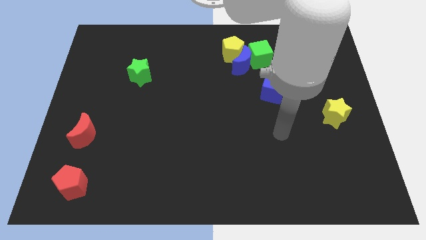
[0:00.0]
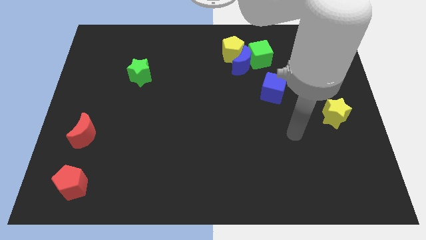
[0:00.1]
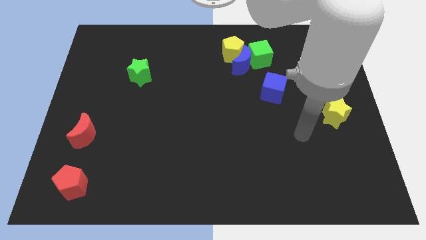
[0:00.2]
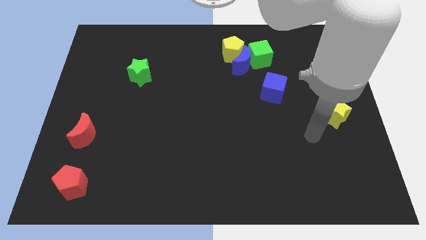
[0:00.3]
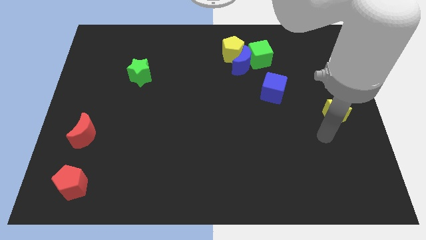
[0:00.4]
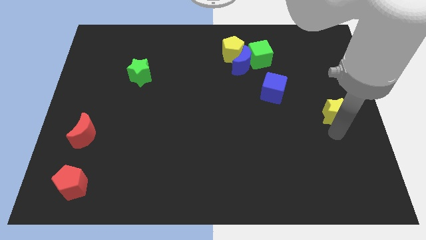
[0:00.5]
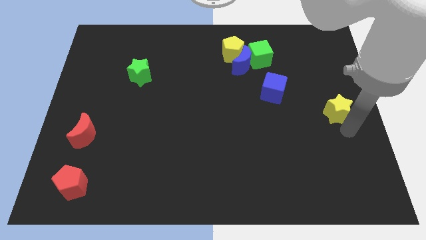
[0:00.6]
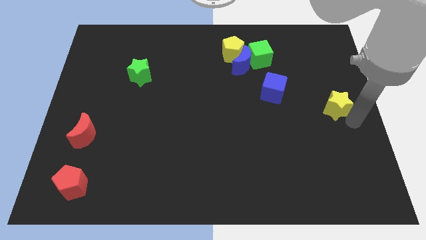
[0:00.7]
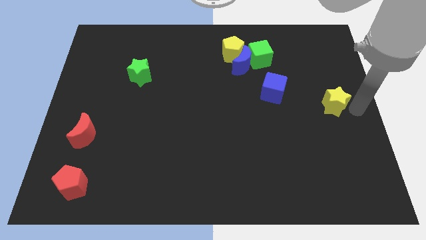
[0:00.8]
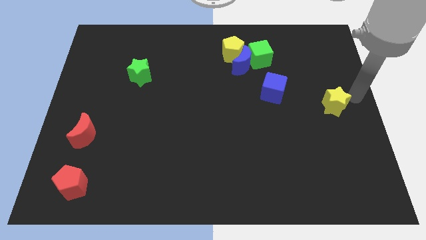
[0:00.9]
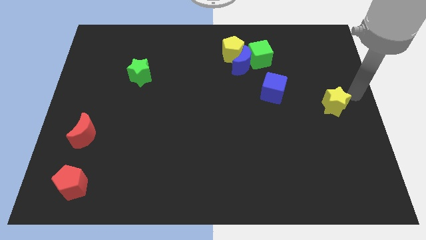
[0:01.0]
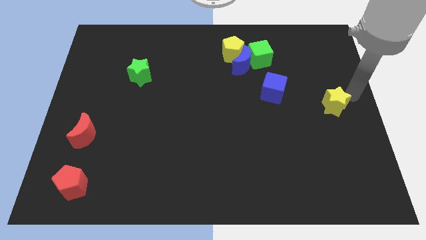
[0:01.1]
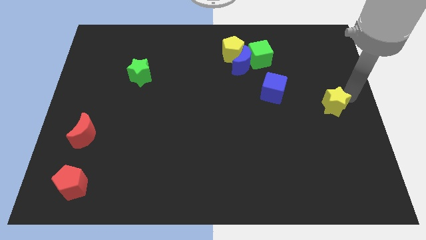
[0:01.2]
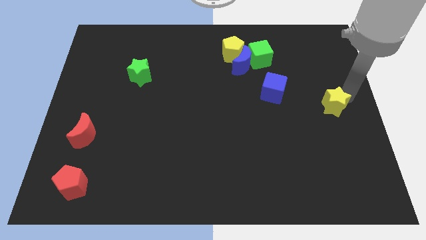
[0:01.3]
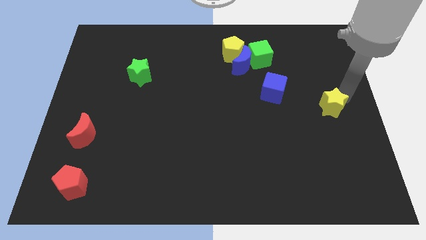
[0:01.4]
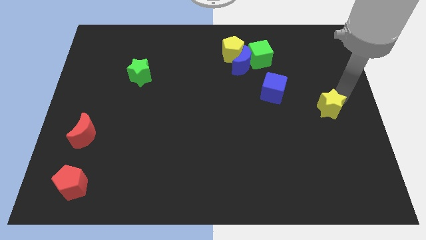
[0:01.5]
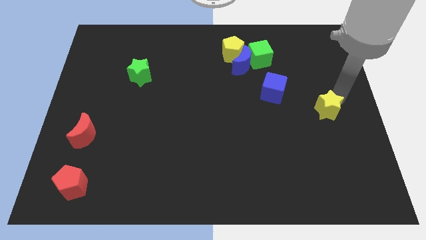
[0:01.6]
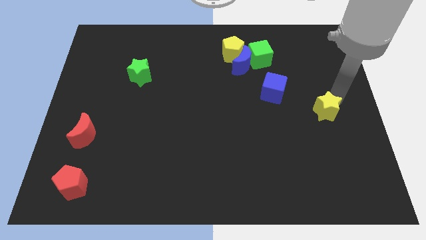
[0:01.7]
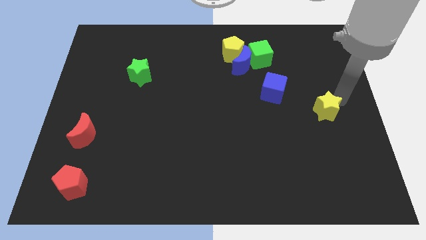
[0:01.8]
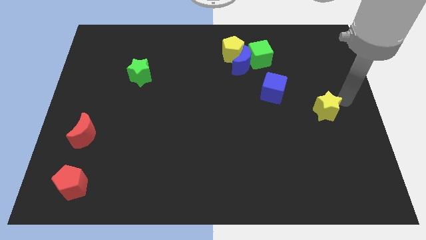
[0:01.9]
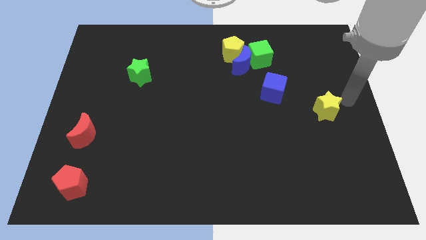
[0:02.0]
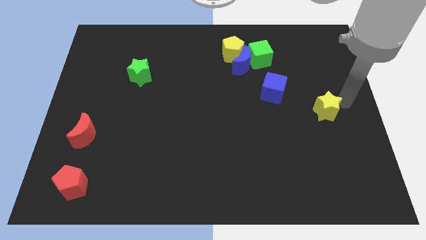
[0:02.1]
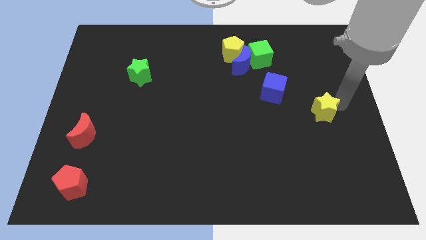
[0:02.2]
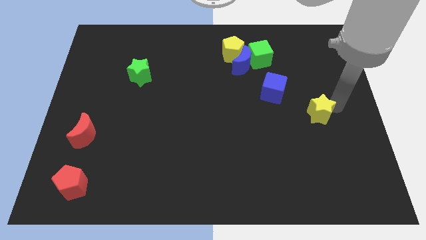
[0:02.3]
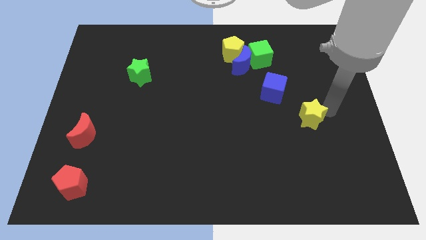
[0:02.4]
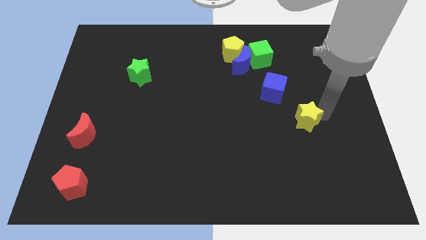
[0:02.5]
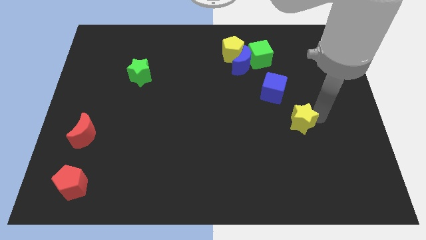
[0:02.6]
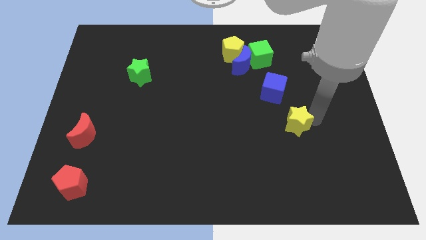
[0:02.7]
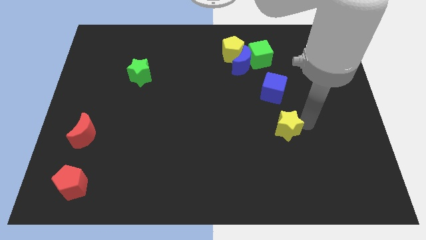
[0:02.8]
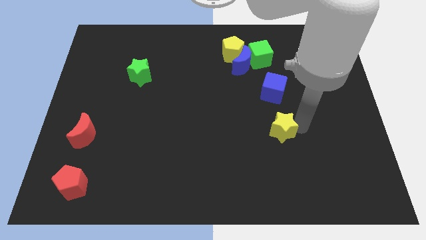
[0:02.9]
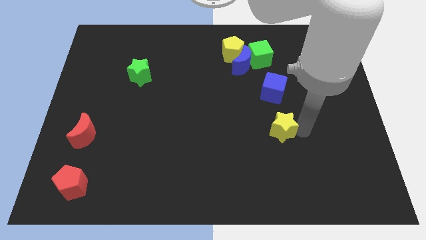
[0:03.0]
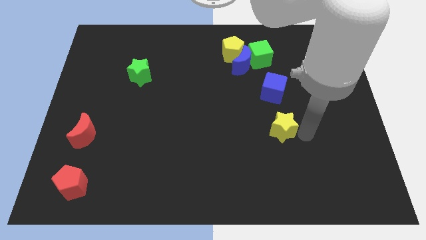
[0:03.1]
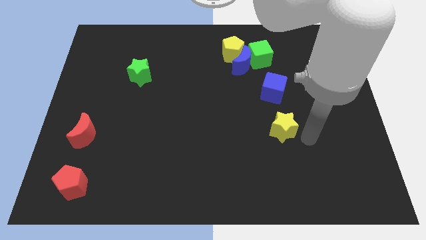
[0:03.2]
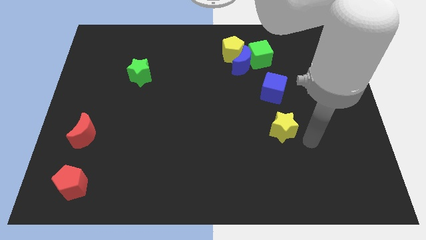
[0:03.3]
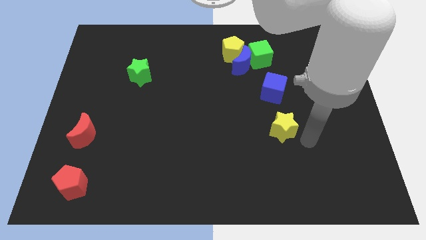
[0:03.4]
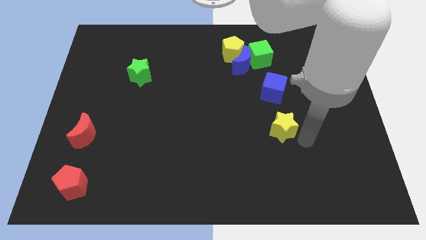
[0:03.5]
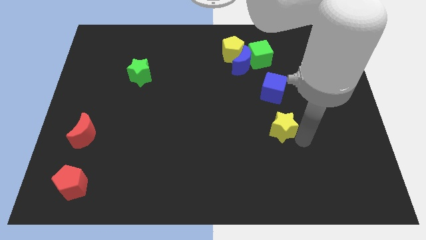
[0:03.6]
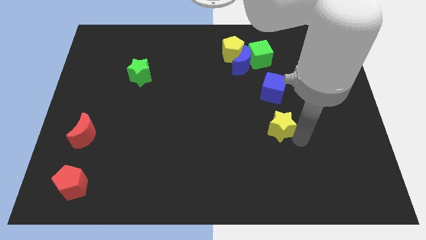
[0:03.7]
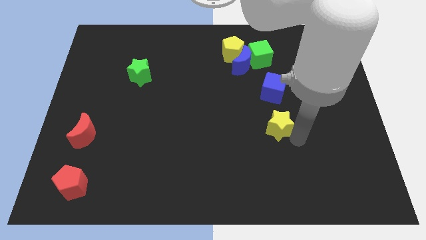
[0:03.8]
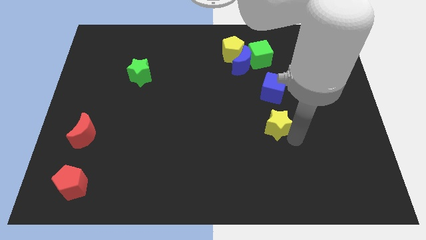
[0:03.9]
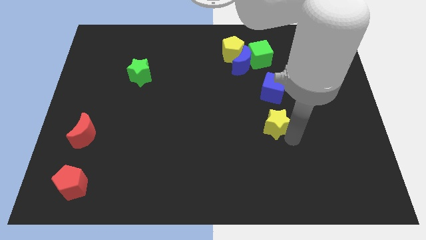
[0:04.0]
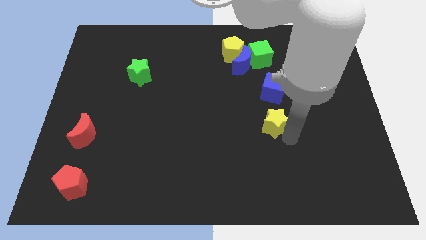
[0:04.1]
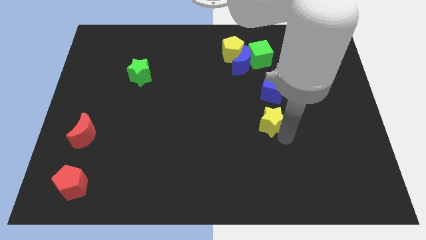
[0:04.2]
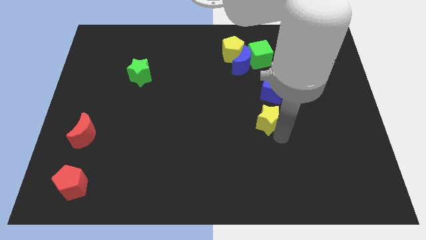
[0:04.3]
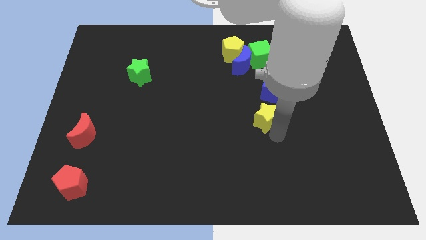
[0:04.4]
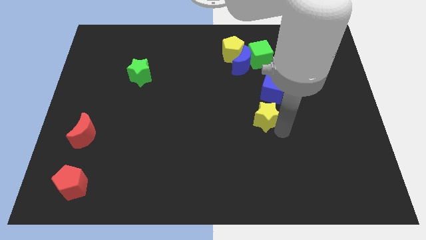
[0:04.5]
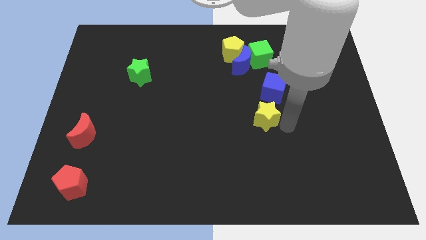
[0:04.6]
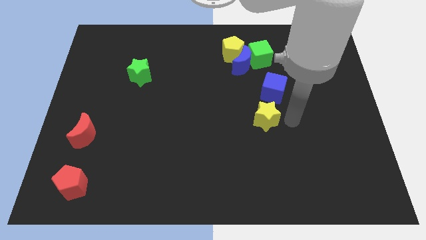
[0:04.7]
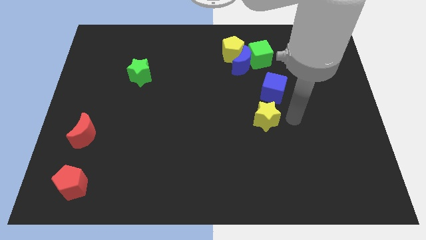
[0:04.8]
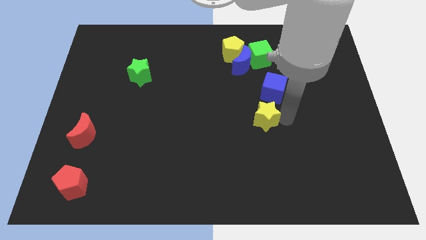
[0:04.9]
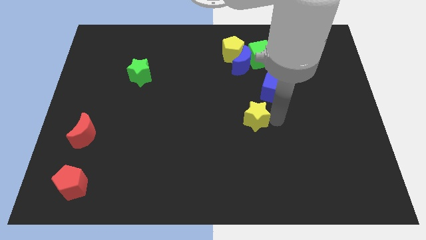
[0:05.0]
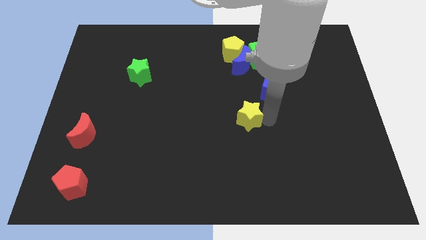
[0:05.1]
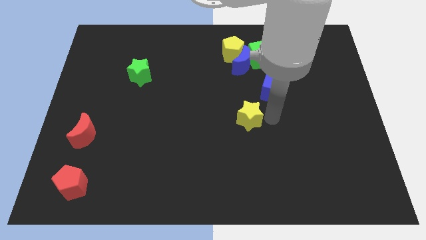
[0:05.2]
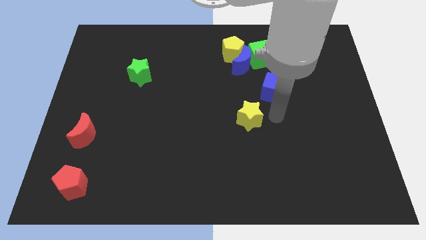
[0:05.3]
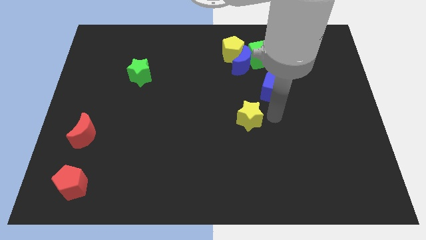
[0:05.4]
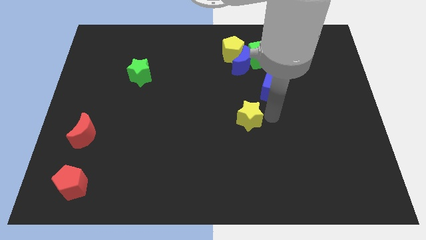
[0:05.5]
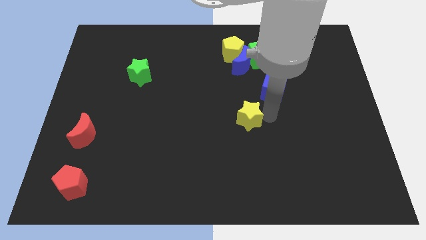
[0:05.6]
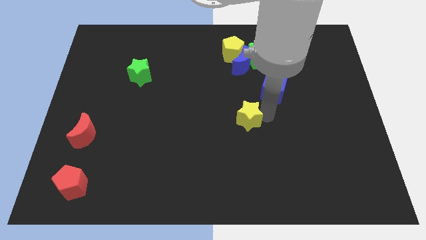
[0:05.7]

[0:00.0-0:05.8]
slide the yellow star left

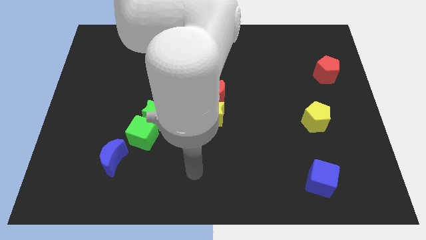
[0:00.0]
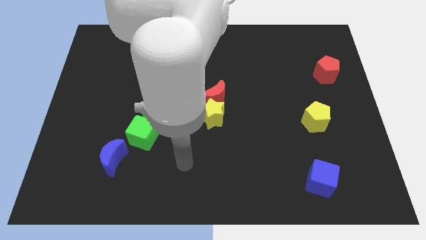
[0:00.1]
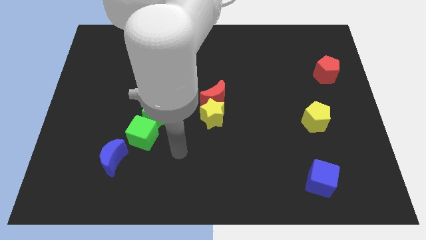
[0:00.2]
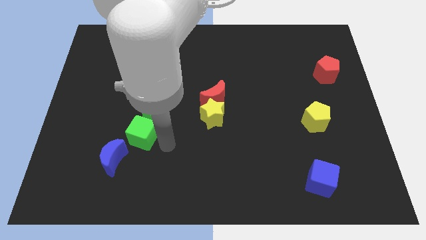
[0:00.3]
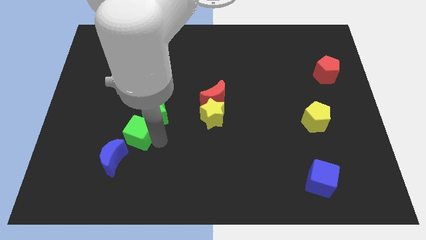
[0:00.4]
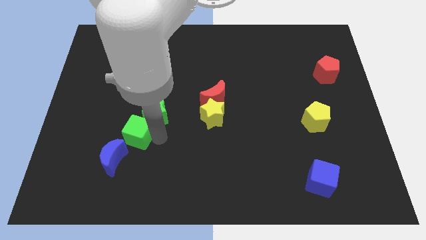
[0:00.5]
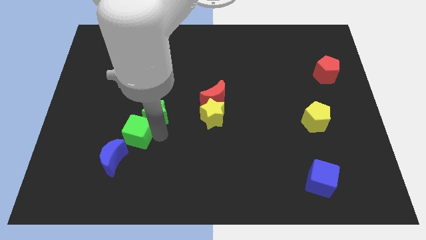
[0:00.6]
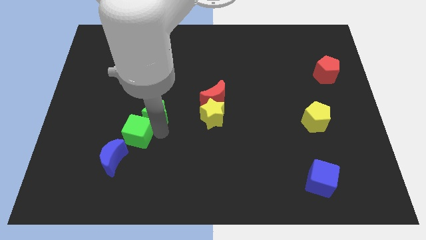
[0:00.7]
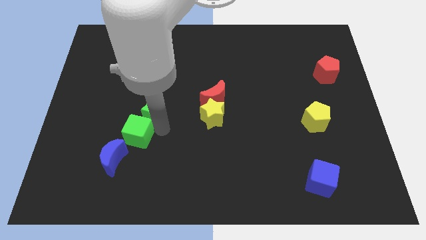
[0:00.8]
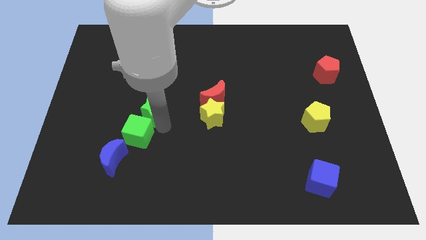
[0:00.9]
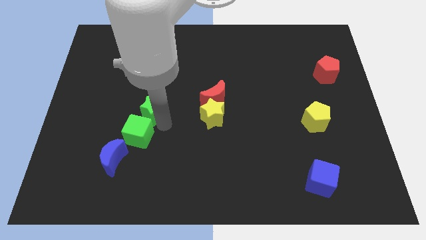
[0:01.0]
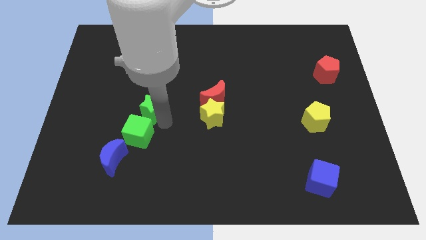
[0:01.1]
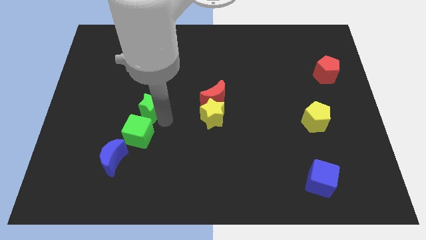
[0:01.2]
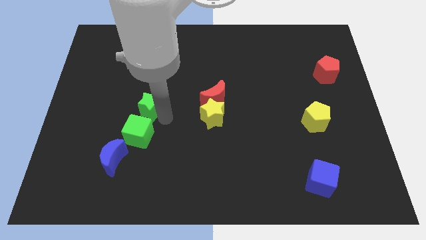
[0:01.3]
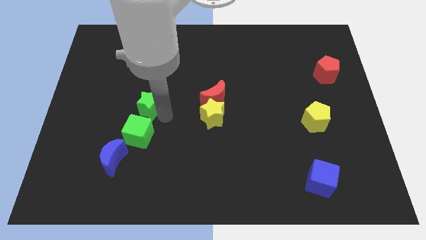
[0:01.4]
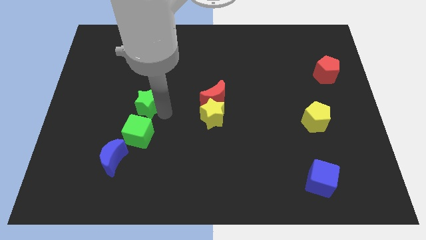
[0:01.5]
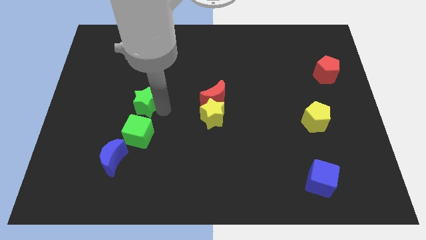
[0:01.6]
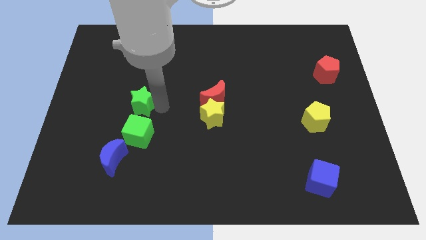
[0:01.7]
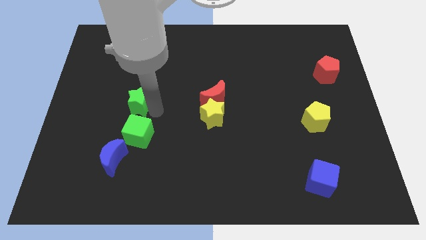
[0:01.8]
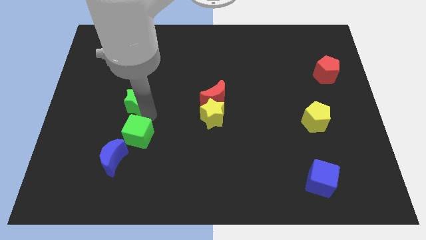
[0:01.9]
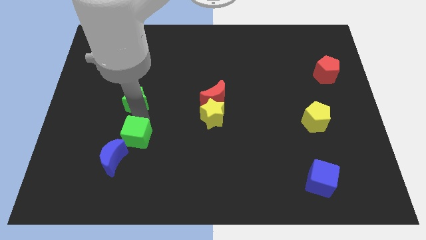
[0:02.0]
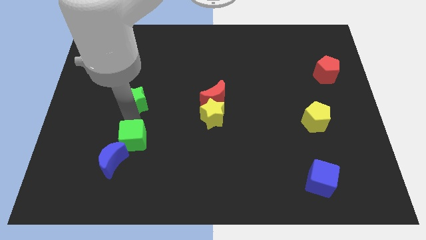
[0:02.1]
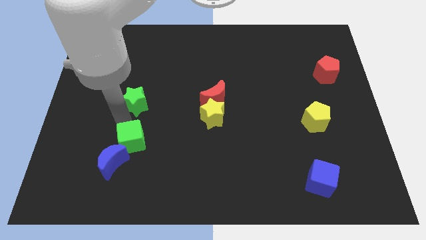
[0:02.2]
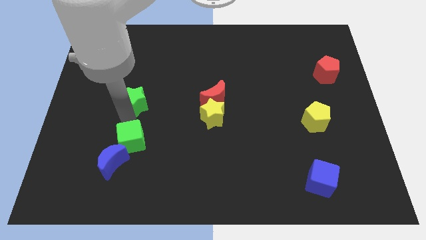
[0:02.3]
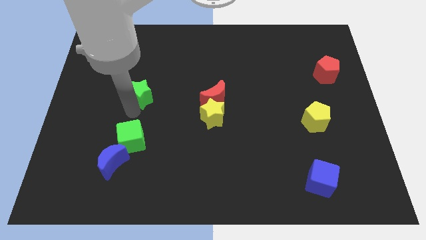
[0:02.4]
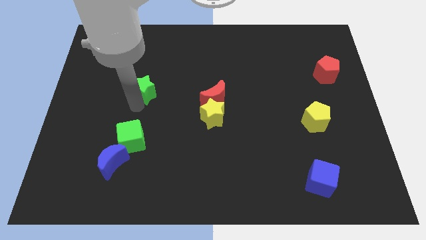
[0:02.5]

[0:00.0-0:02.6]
slightly slide the green star up
